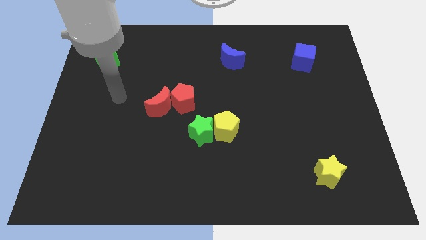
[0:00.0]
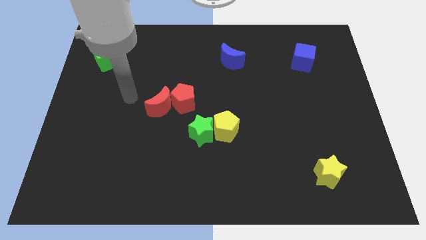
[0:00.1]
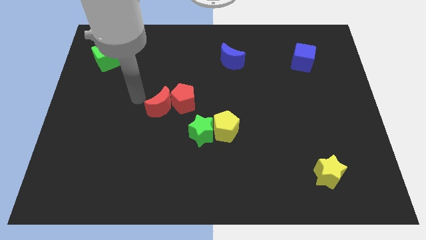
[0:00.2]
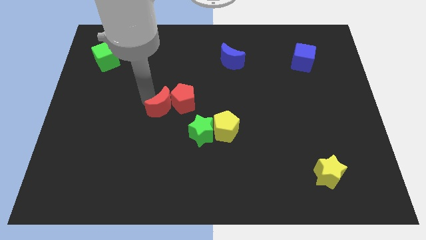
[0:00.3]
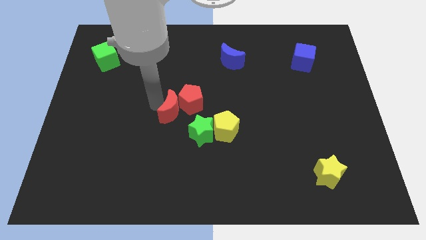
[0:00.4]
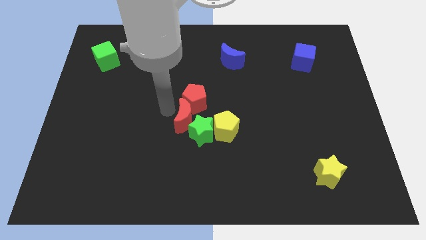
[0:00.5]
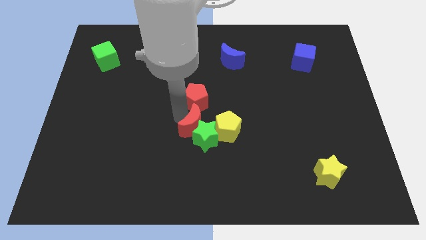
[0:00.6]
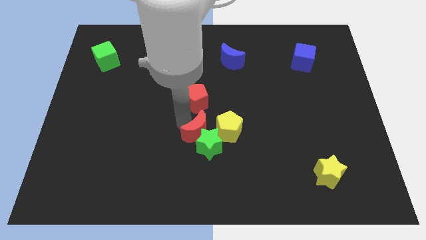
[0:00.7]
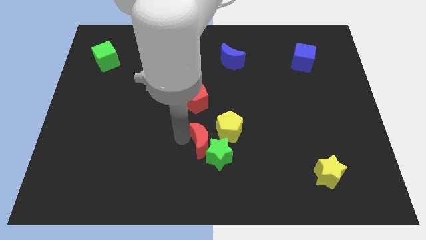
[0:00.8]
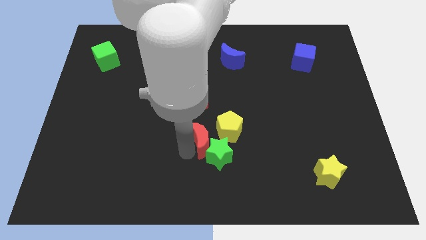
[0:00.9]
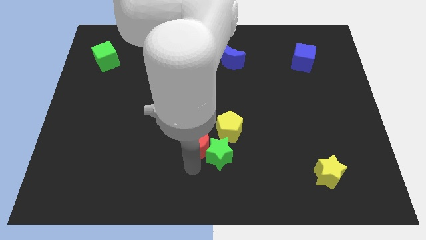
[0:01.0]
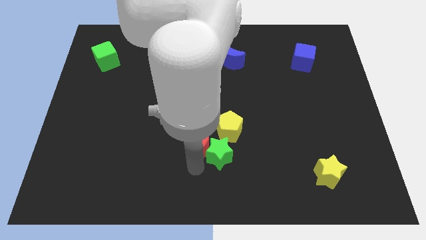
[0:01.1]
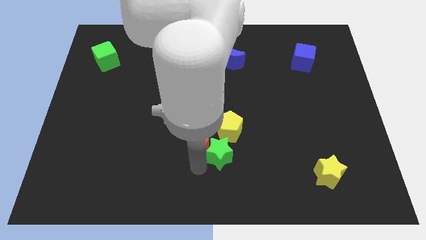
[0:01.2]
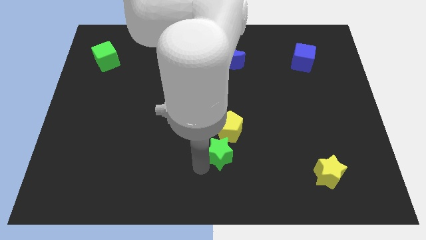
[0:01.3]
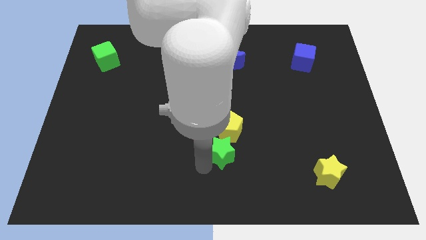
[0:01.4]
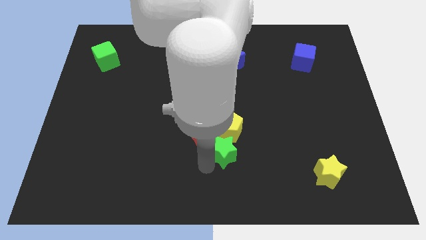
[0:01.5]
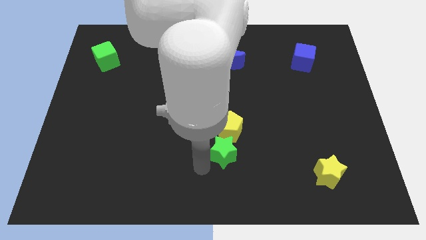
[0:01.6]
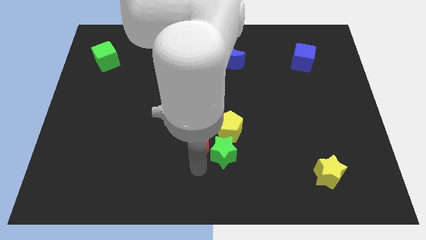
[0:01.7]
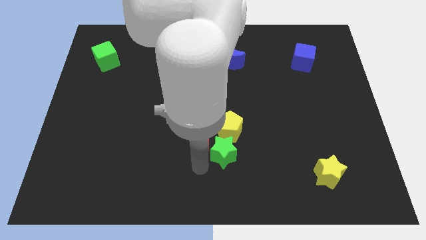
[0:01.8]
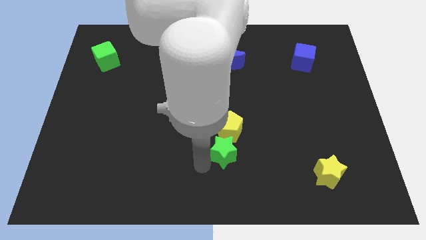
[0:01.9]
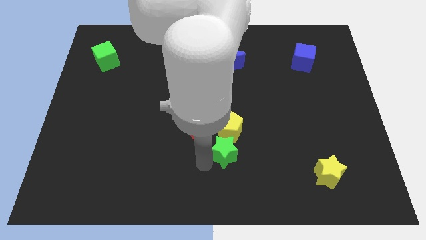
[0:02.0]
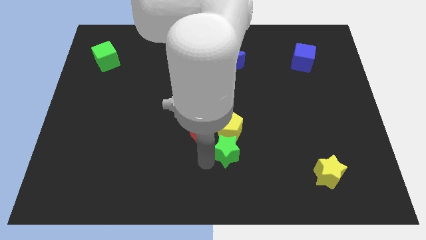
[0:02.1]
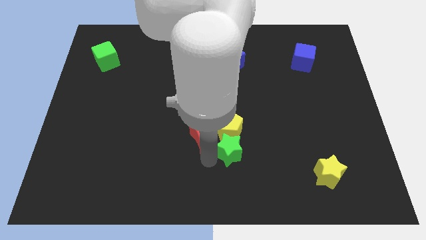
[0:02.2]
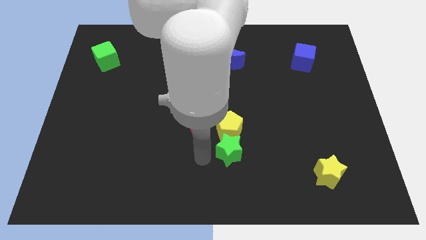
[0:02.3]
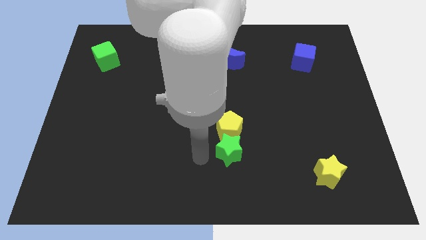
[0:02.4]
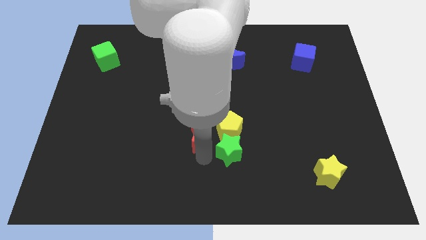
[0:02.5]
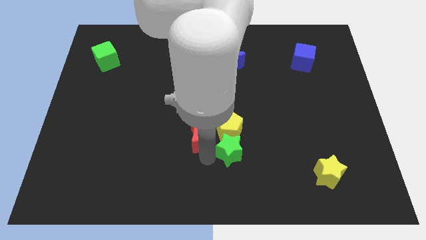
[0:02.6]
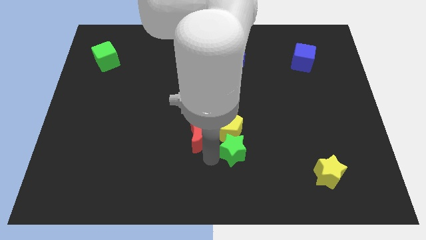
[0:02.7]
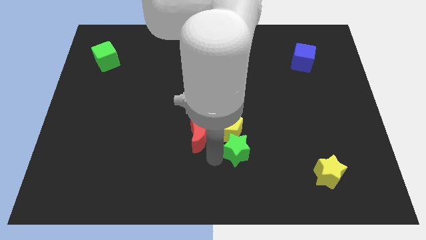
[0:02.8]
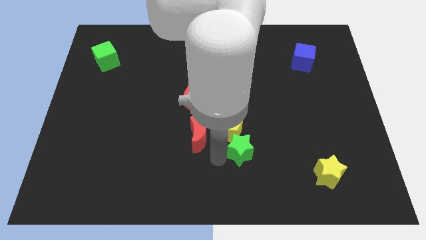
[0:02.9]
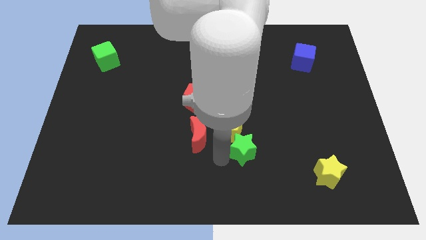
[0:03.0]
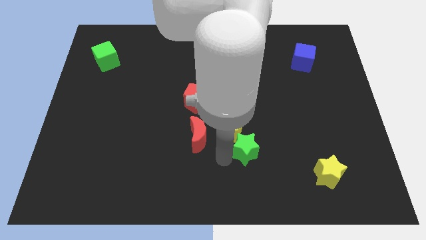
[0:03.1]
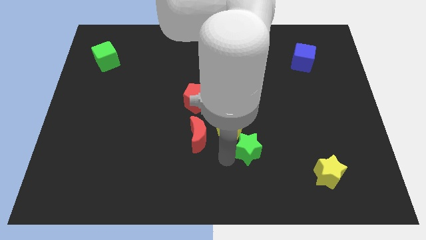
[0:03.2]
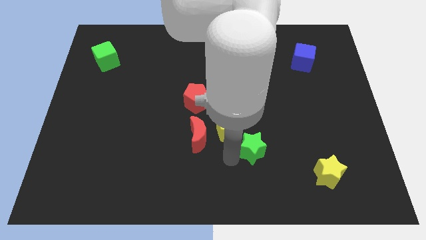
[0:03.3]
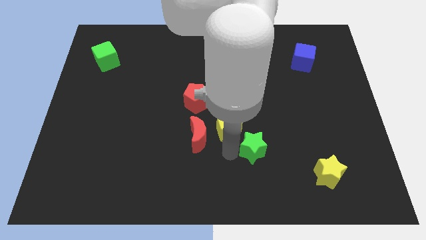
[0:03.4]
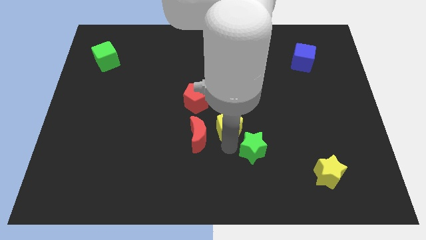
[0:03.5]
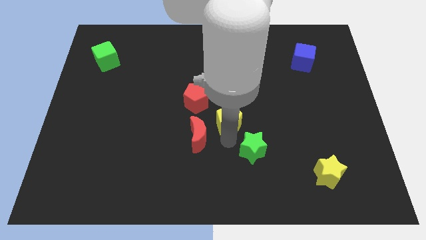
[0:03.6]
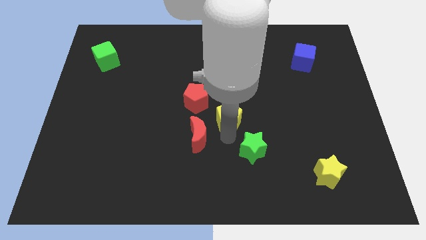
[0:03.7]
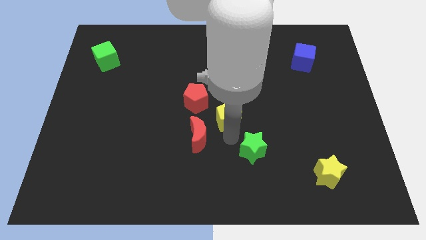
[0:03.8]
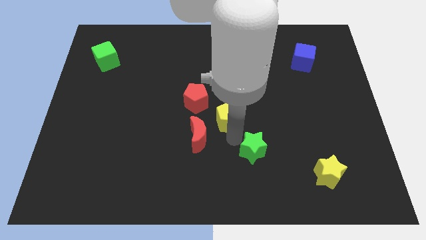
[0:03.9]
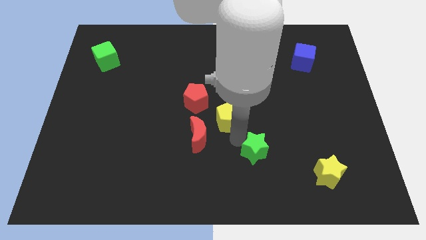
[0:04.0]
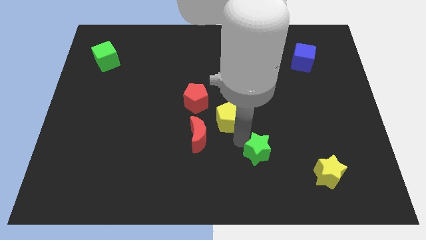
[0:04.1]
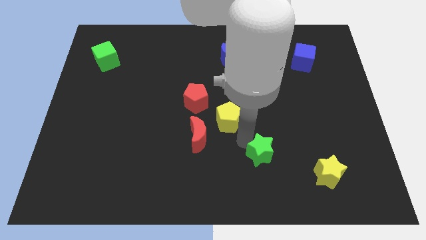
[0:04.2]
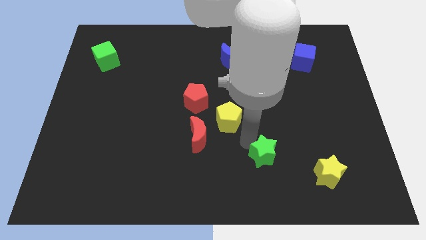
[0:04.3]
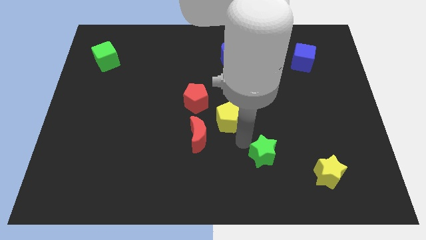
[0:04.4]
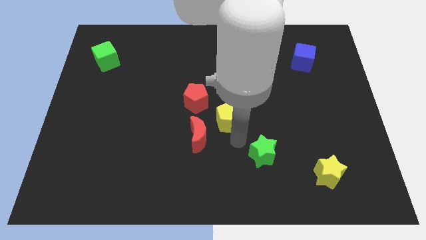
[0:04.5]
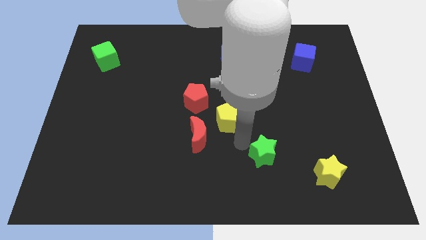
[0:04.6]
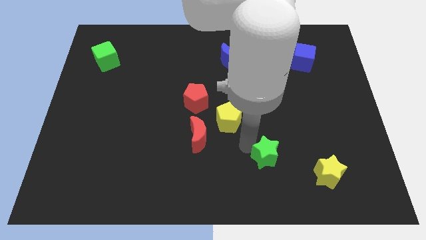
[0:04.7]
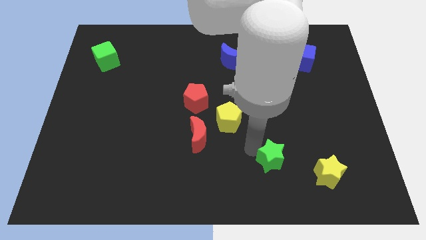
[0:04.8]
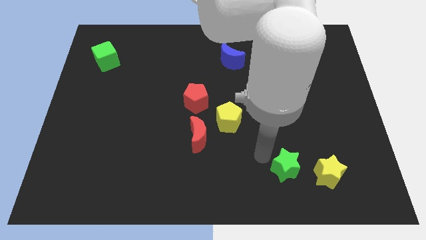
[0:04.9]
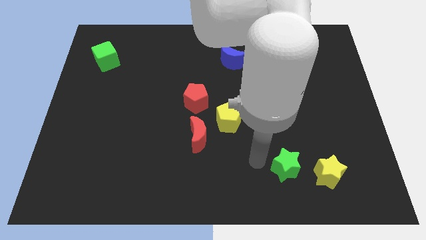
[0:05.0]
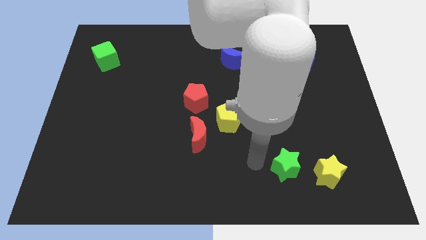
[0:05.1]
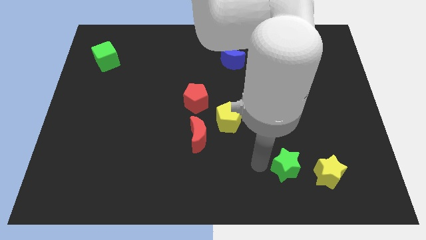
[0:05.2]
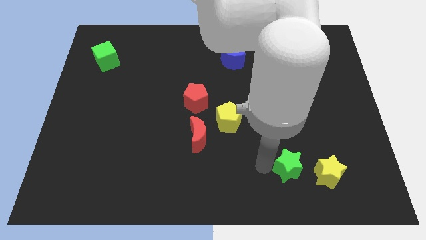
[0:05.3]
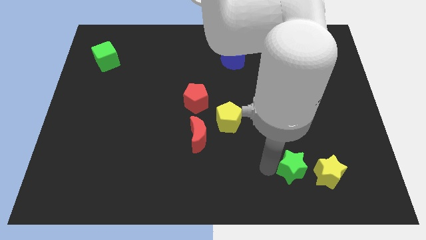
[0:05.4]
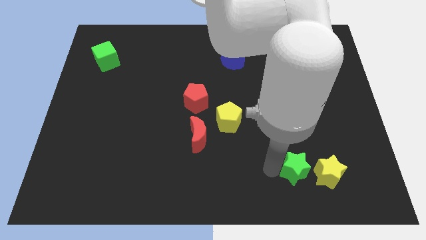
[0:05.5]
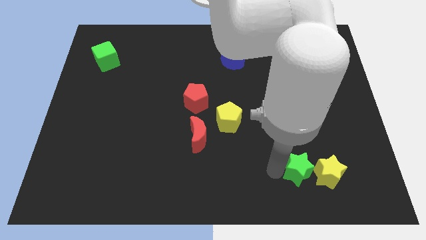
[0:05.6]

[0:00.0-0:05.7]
push the green star to the yellow star

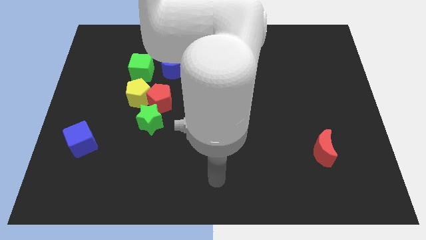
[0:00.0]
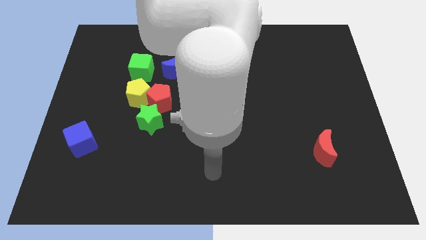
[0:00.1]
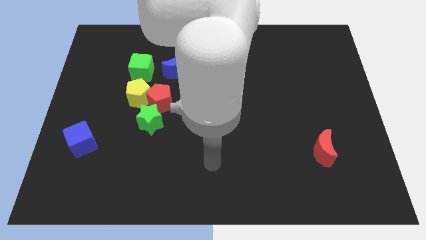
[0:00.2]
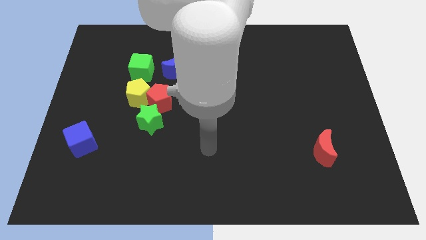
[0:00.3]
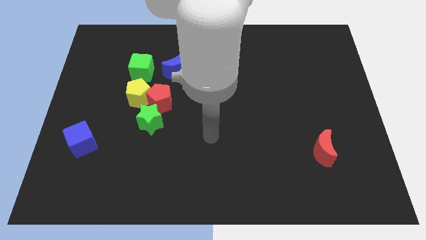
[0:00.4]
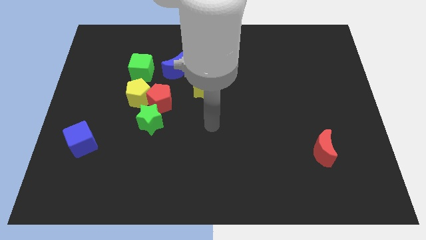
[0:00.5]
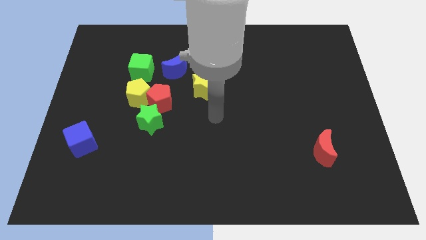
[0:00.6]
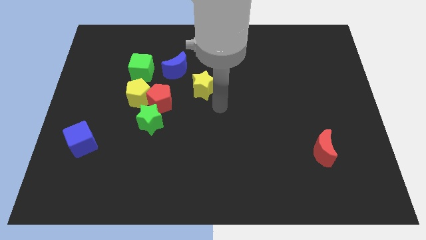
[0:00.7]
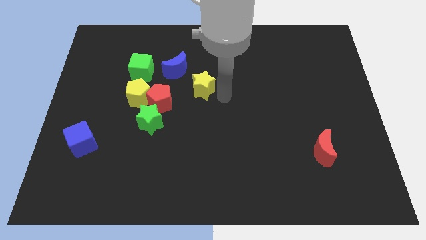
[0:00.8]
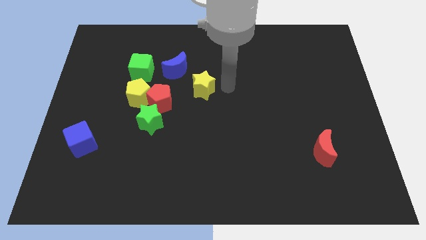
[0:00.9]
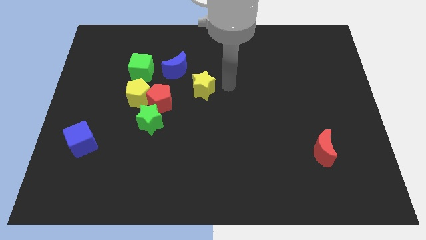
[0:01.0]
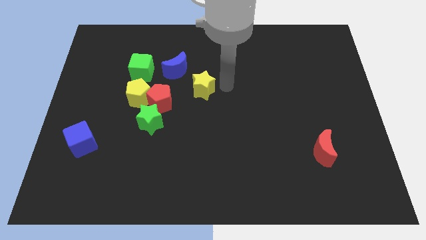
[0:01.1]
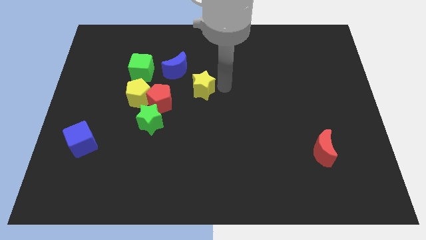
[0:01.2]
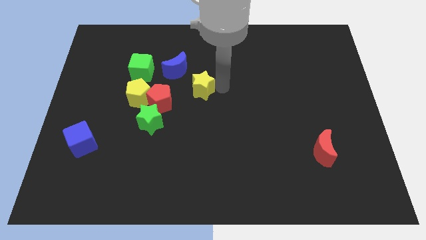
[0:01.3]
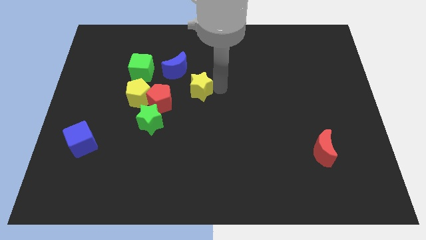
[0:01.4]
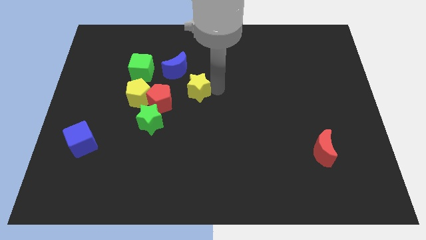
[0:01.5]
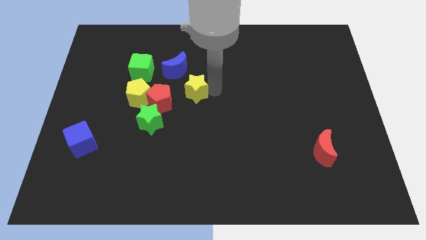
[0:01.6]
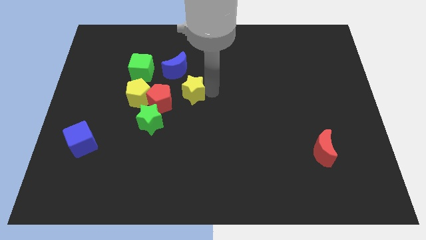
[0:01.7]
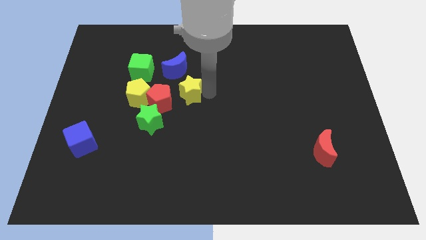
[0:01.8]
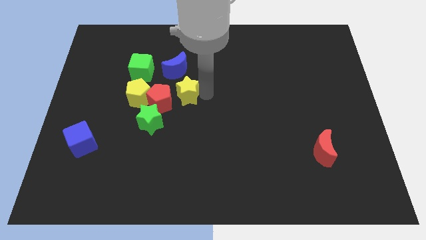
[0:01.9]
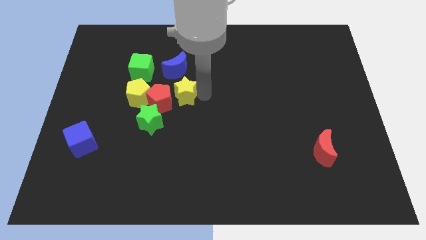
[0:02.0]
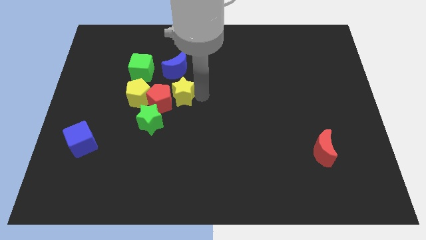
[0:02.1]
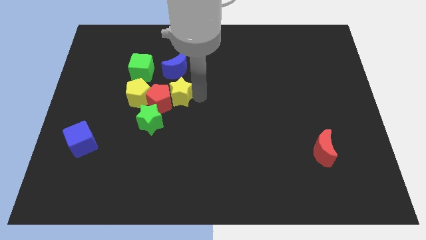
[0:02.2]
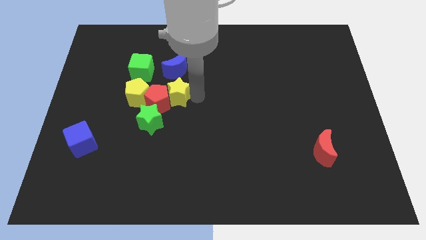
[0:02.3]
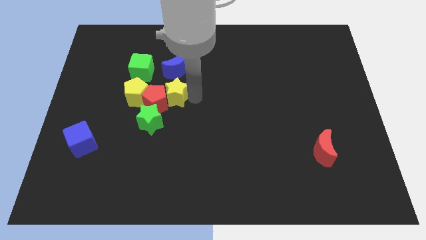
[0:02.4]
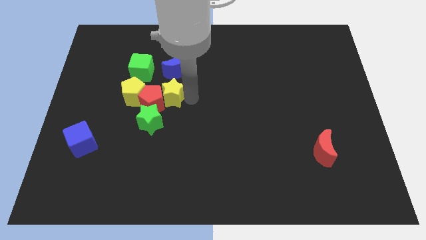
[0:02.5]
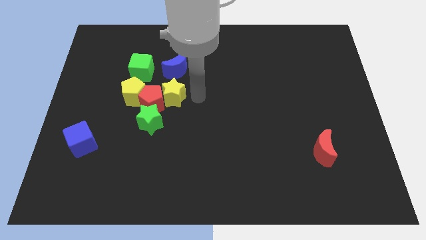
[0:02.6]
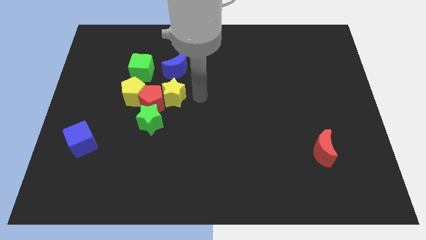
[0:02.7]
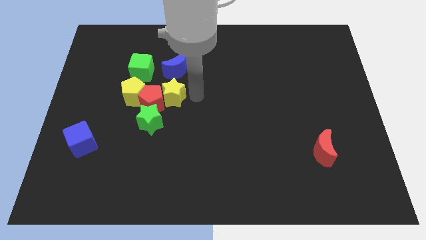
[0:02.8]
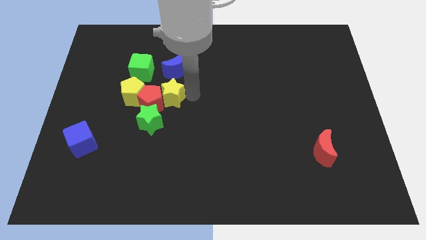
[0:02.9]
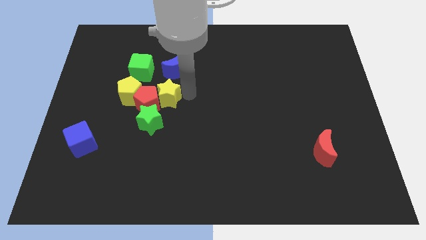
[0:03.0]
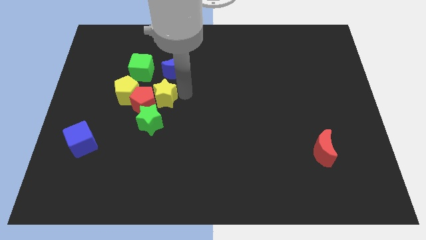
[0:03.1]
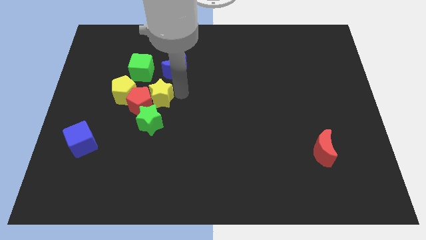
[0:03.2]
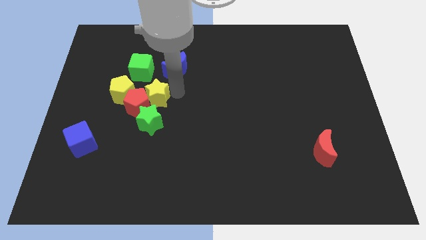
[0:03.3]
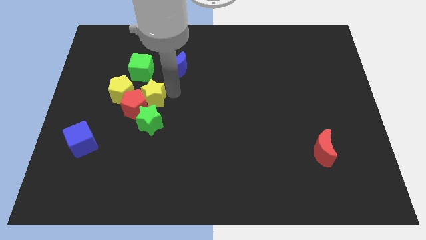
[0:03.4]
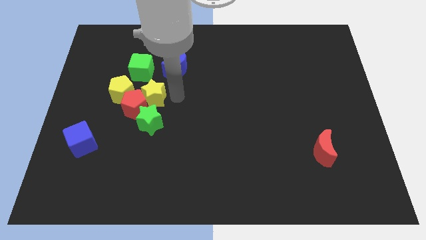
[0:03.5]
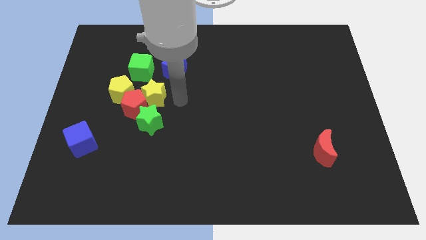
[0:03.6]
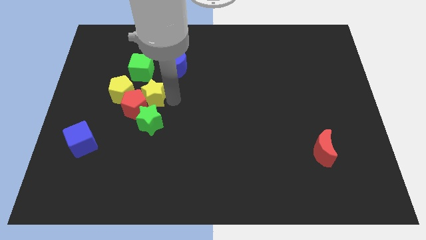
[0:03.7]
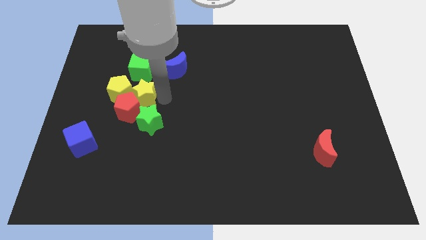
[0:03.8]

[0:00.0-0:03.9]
move the yellow star to the yellow pentagon
